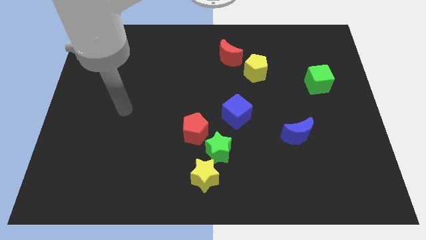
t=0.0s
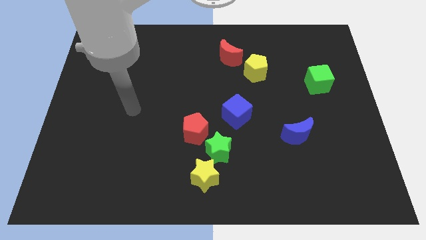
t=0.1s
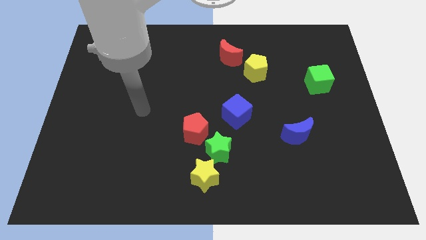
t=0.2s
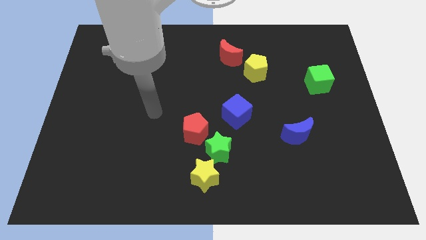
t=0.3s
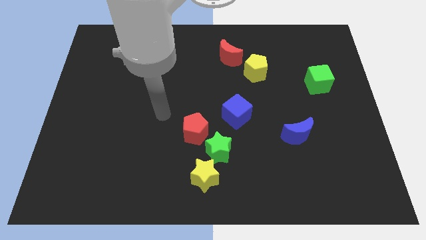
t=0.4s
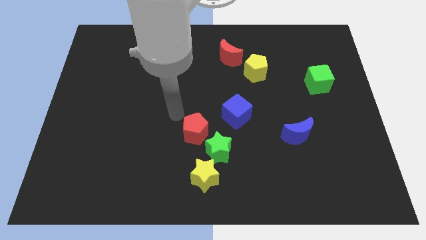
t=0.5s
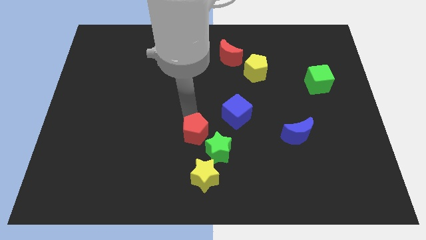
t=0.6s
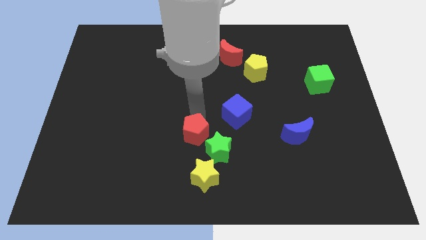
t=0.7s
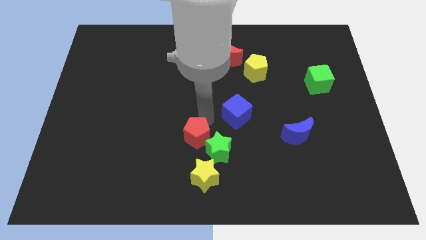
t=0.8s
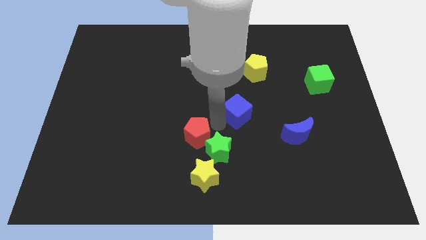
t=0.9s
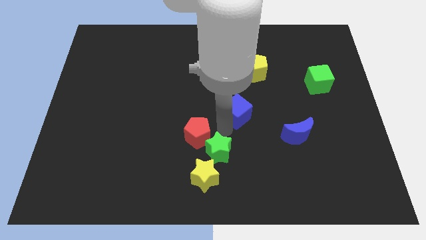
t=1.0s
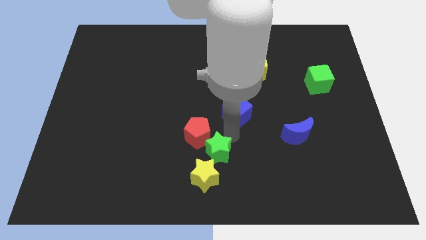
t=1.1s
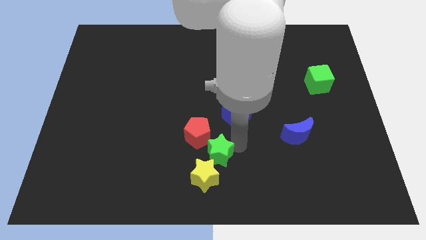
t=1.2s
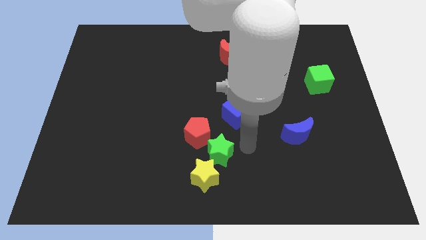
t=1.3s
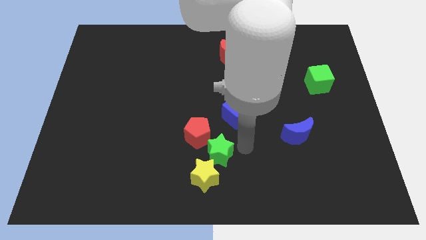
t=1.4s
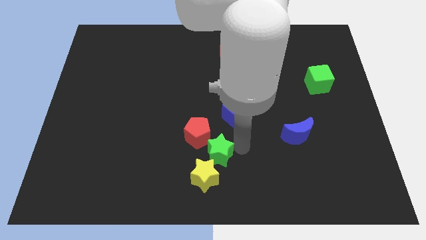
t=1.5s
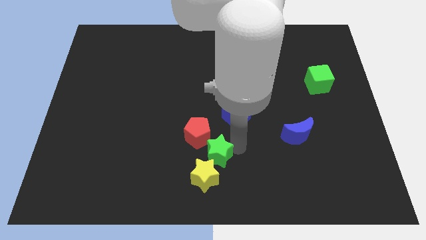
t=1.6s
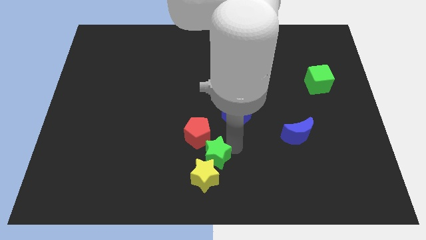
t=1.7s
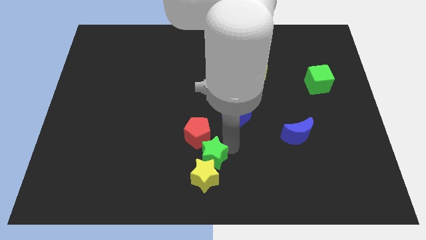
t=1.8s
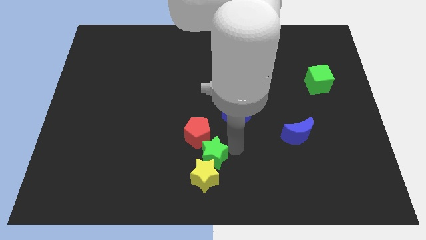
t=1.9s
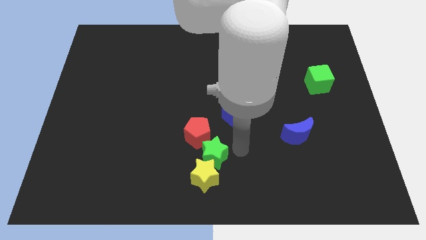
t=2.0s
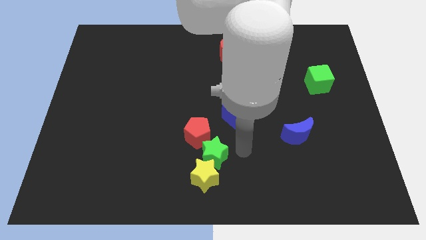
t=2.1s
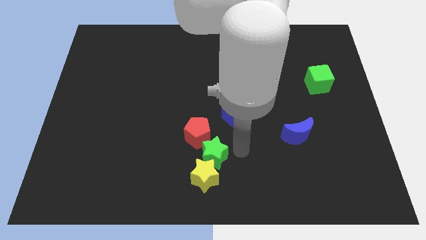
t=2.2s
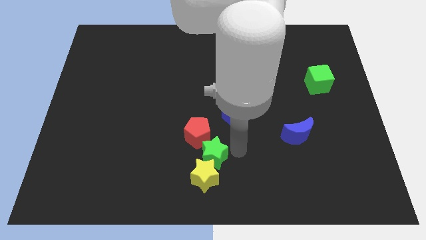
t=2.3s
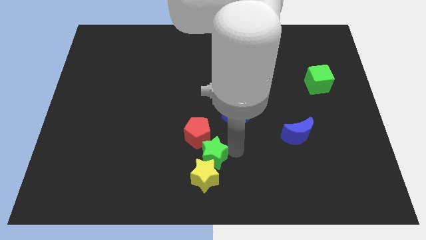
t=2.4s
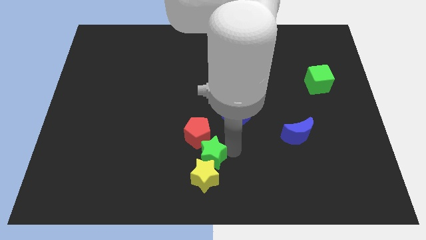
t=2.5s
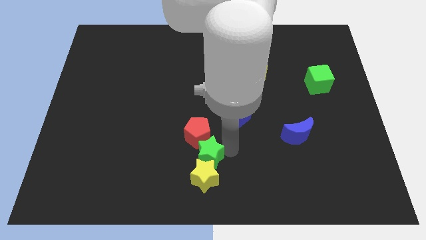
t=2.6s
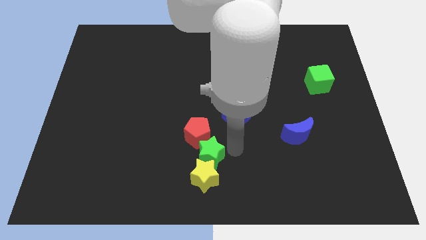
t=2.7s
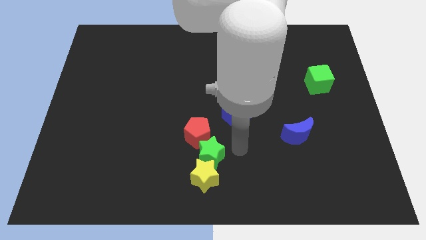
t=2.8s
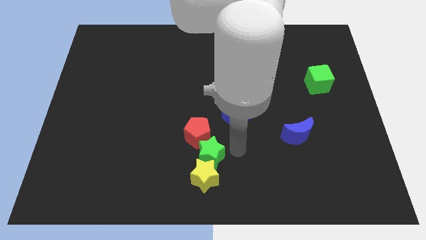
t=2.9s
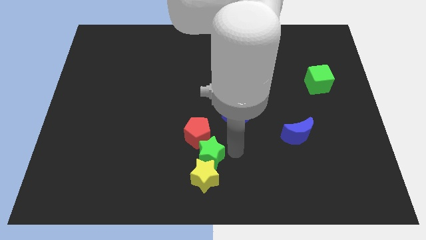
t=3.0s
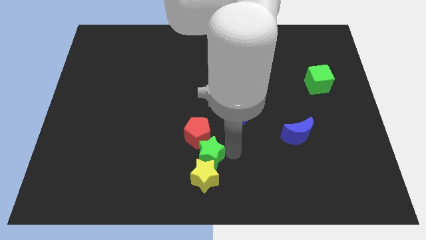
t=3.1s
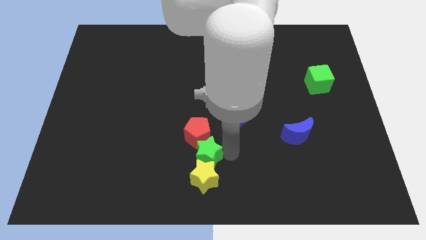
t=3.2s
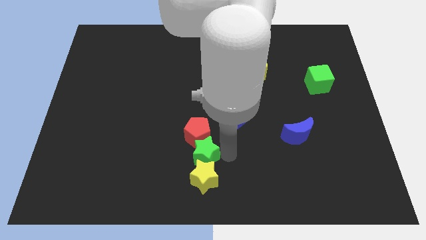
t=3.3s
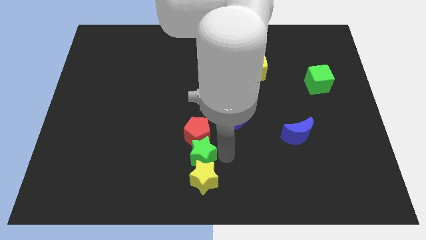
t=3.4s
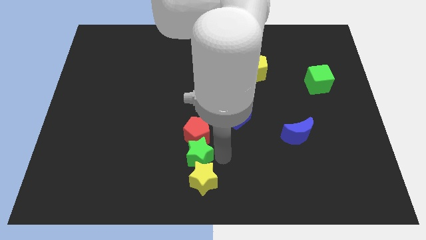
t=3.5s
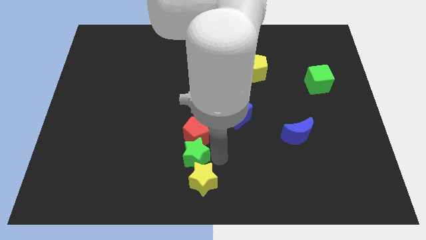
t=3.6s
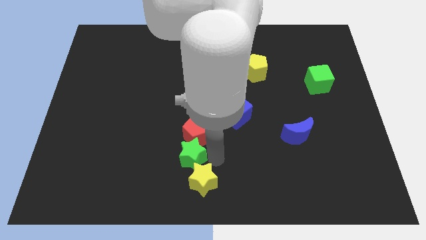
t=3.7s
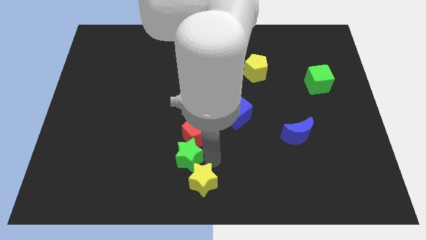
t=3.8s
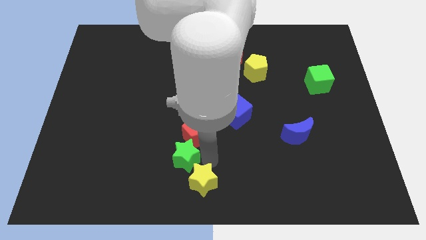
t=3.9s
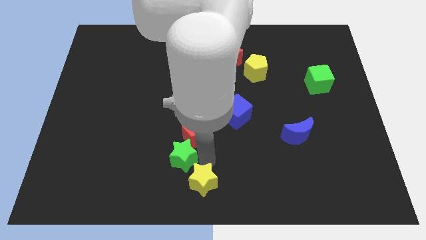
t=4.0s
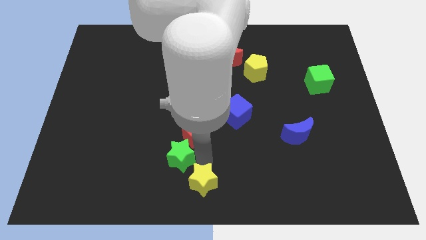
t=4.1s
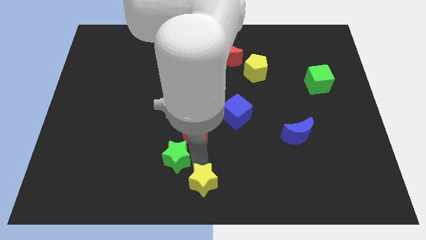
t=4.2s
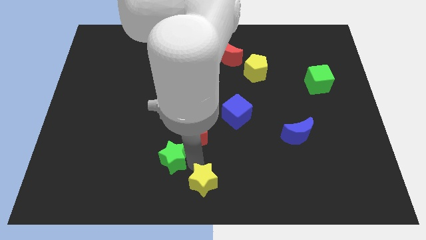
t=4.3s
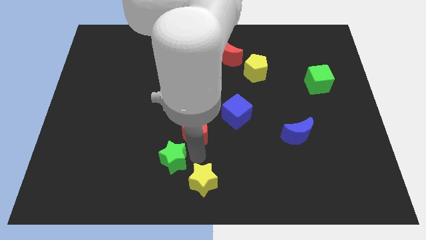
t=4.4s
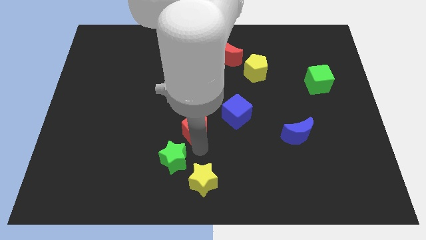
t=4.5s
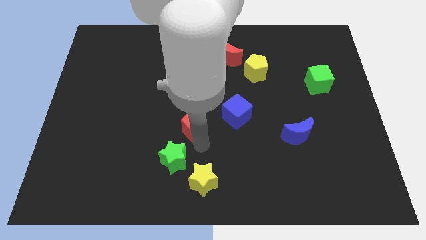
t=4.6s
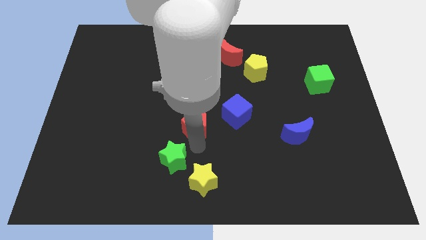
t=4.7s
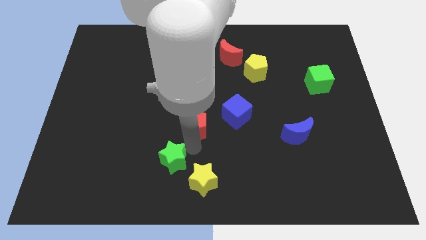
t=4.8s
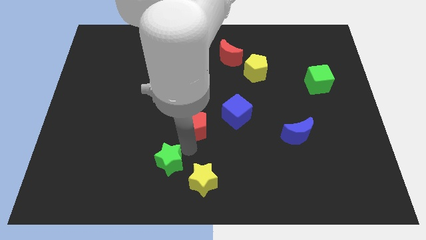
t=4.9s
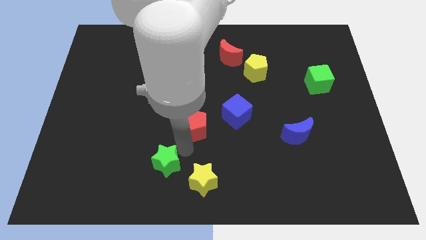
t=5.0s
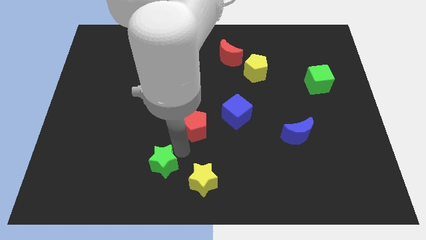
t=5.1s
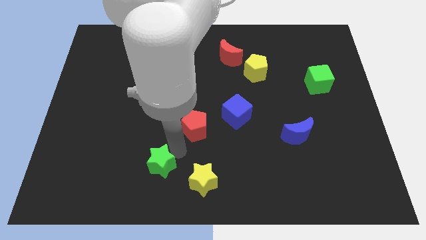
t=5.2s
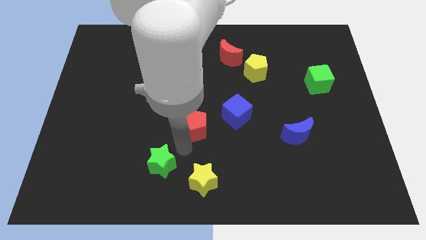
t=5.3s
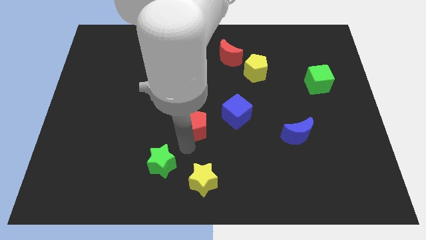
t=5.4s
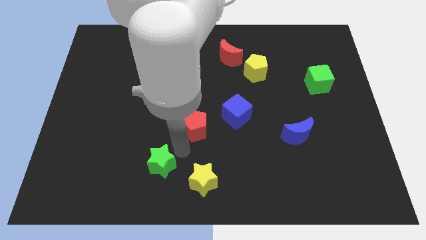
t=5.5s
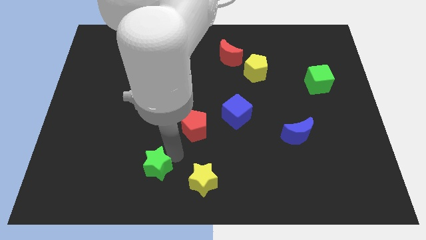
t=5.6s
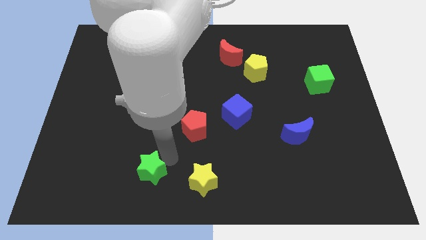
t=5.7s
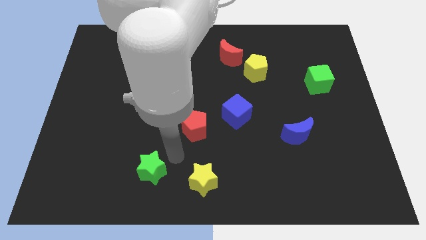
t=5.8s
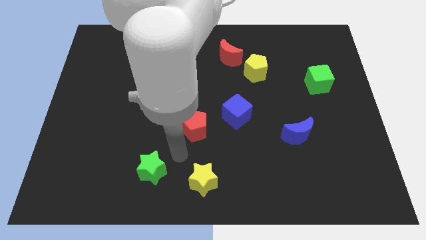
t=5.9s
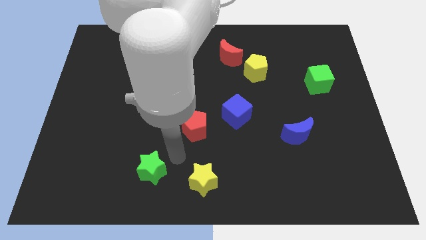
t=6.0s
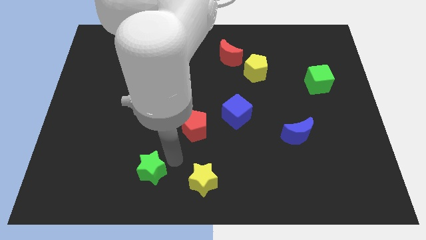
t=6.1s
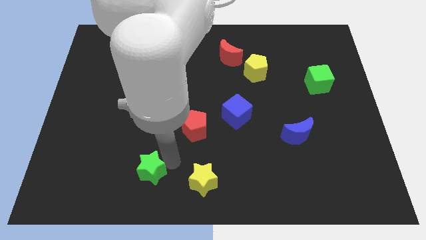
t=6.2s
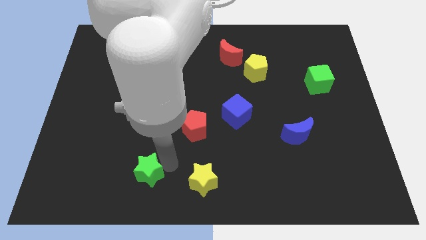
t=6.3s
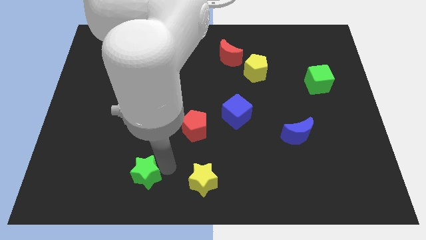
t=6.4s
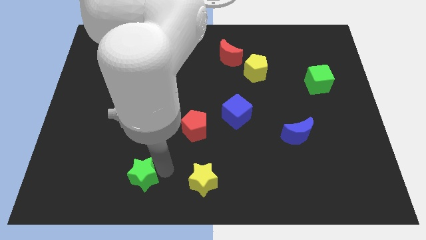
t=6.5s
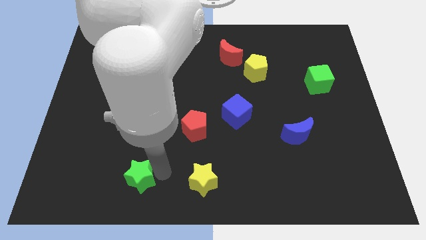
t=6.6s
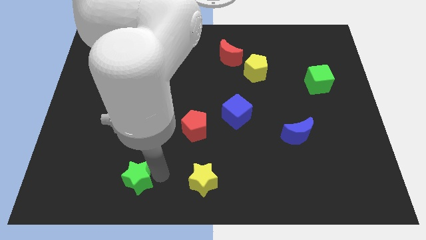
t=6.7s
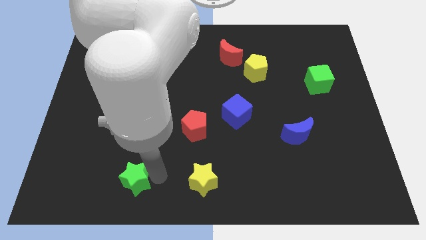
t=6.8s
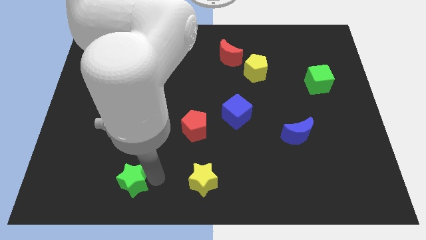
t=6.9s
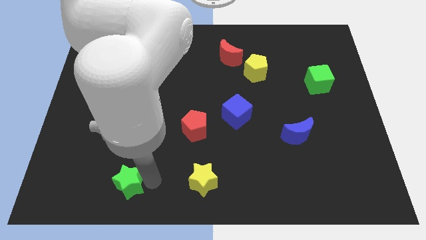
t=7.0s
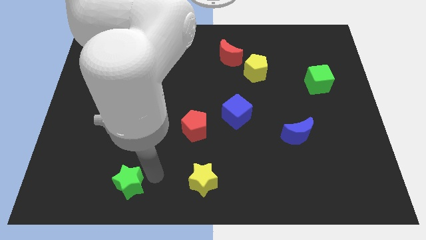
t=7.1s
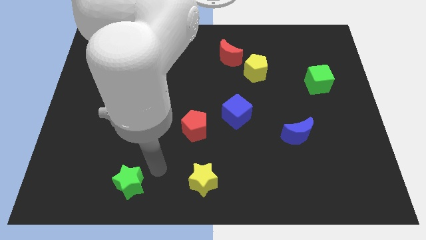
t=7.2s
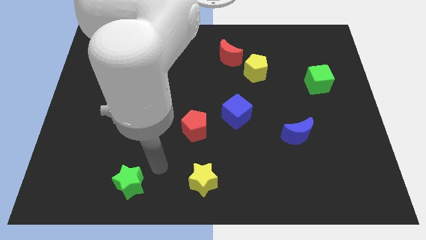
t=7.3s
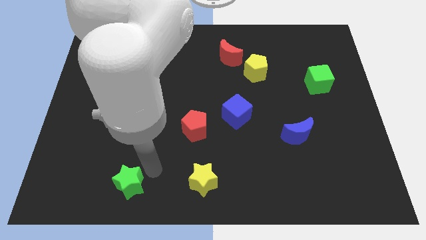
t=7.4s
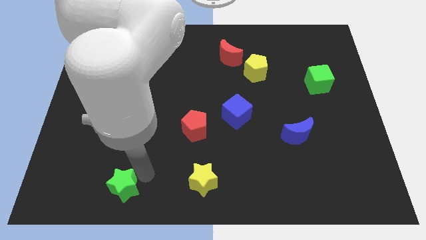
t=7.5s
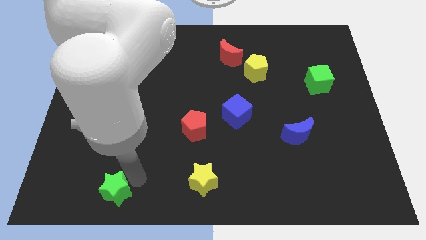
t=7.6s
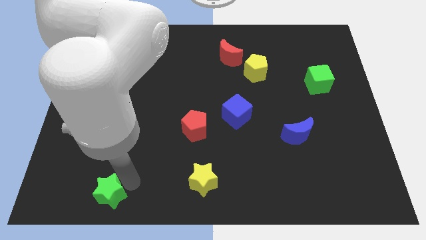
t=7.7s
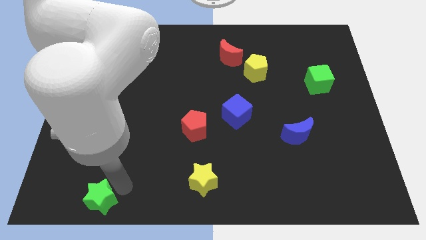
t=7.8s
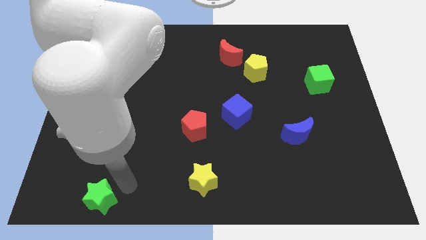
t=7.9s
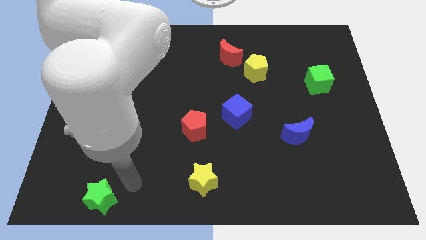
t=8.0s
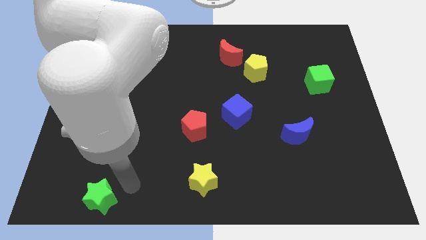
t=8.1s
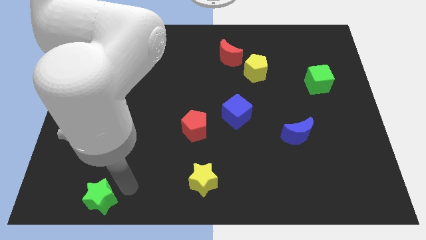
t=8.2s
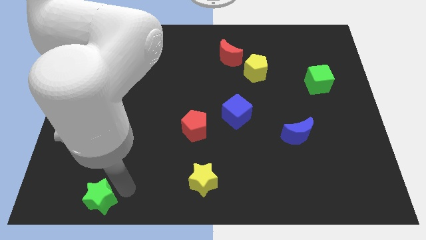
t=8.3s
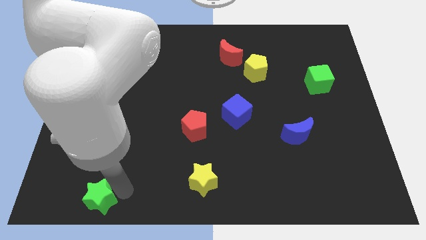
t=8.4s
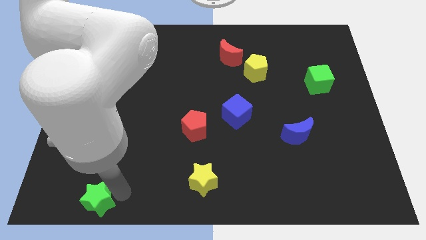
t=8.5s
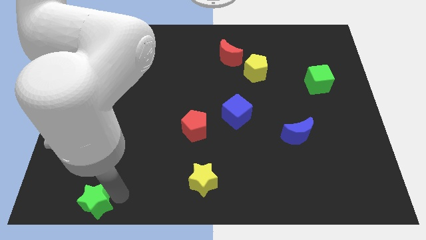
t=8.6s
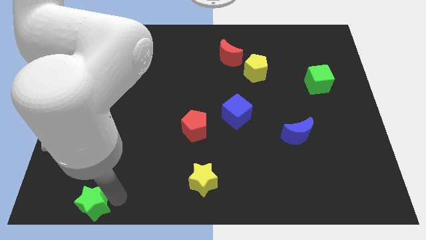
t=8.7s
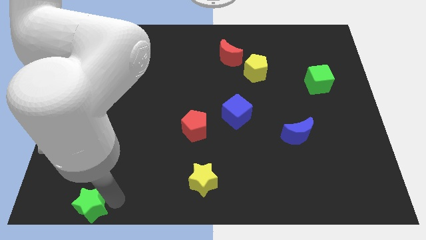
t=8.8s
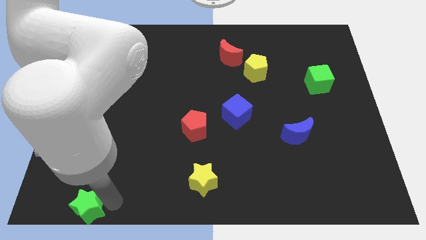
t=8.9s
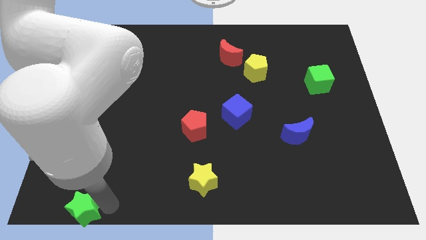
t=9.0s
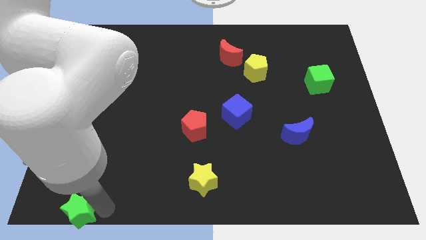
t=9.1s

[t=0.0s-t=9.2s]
move the green star to the bottom left of the board
